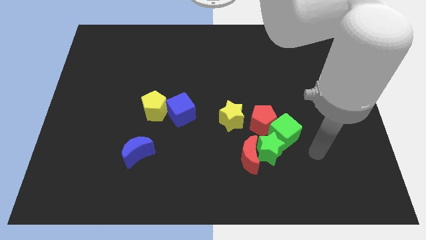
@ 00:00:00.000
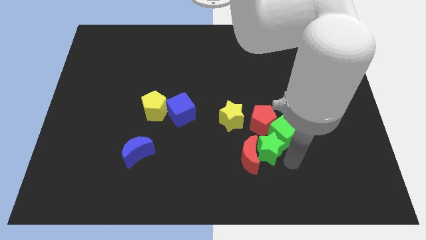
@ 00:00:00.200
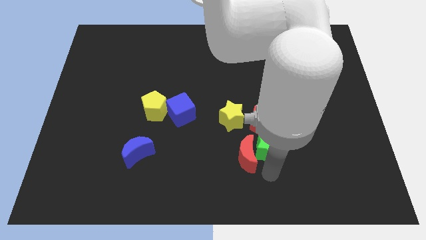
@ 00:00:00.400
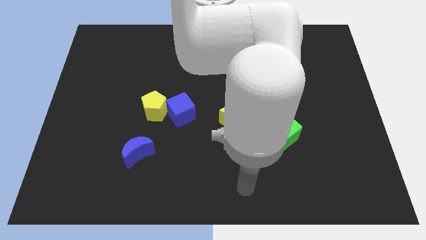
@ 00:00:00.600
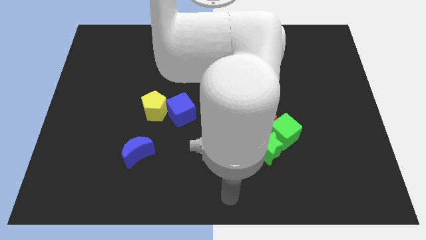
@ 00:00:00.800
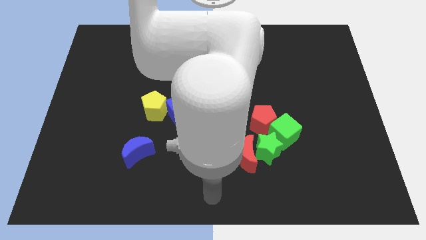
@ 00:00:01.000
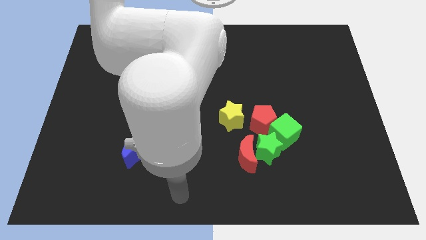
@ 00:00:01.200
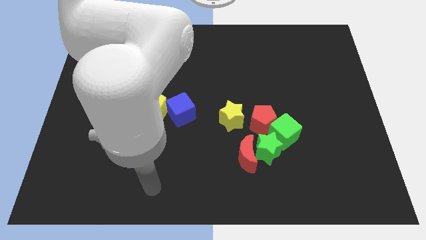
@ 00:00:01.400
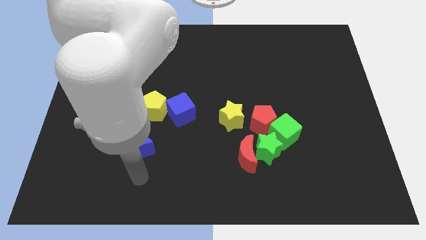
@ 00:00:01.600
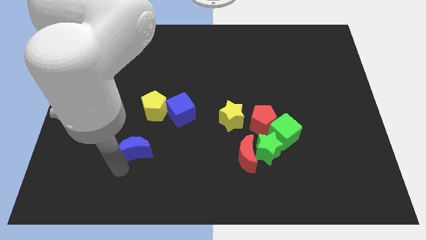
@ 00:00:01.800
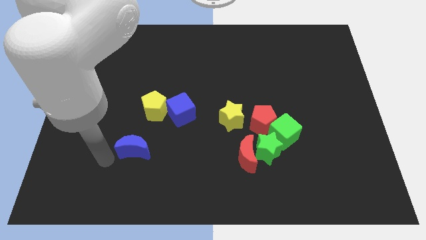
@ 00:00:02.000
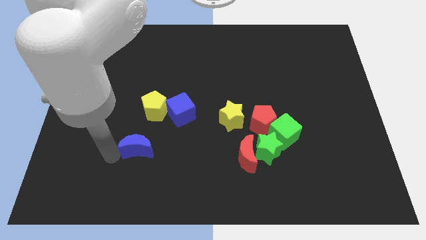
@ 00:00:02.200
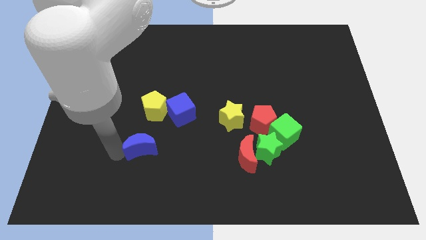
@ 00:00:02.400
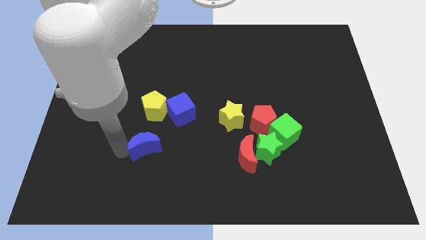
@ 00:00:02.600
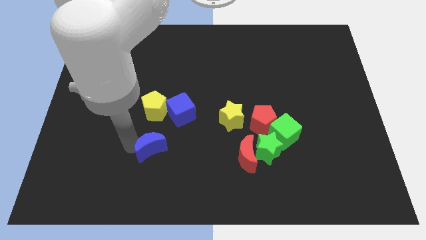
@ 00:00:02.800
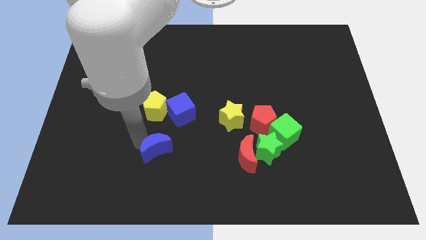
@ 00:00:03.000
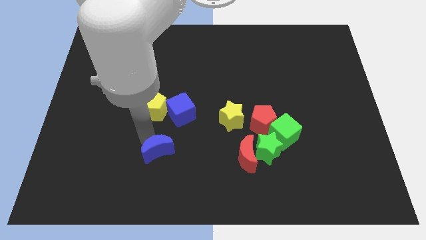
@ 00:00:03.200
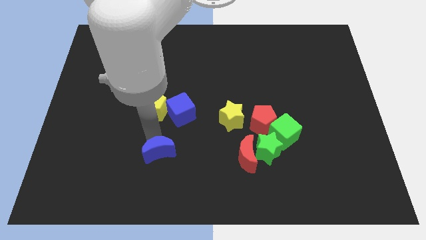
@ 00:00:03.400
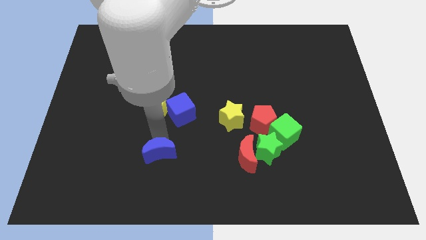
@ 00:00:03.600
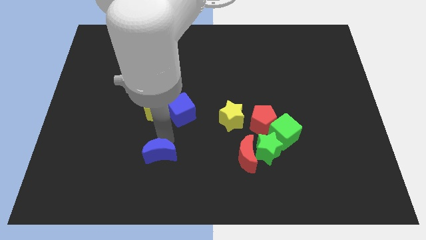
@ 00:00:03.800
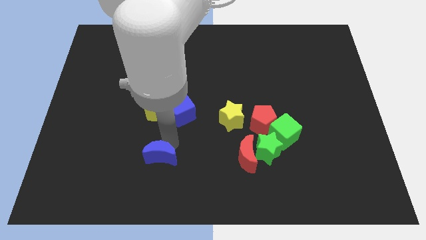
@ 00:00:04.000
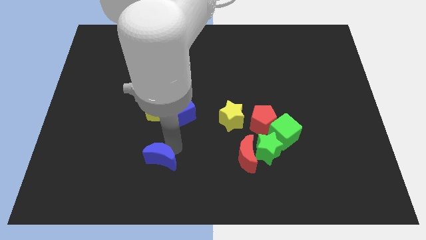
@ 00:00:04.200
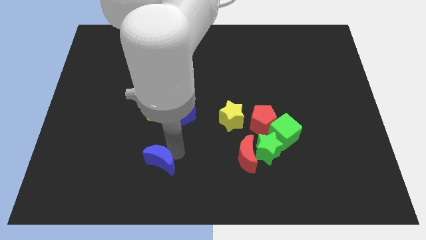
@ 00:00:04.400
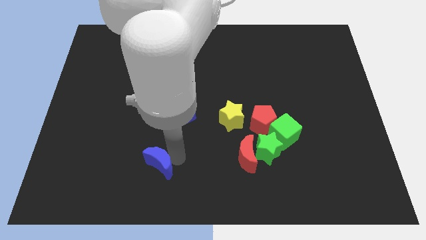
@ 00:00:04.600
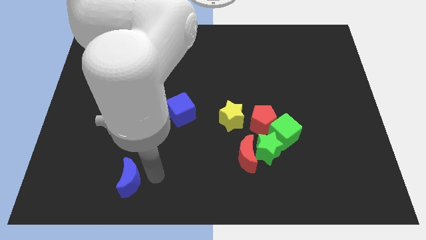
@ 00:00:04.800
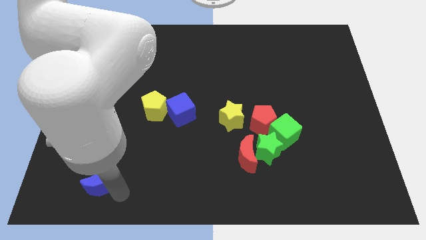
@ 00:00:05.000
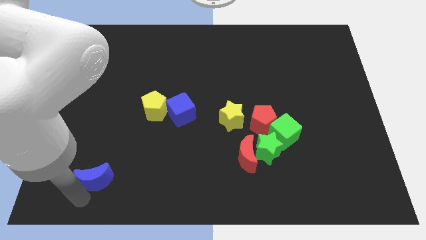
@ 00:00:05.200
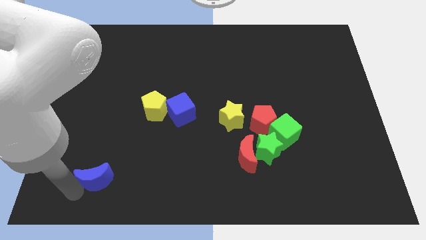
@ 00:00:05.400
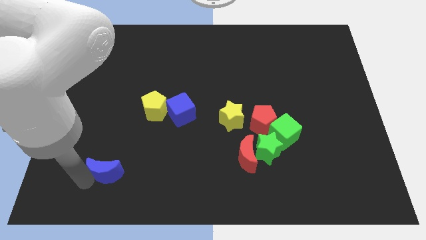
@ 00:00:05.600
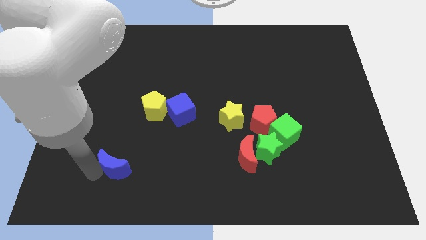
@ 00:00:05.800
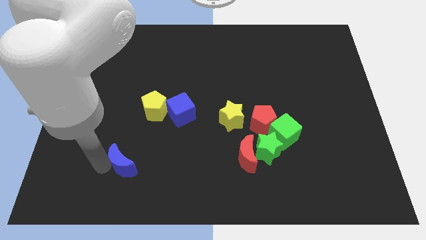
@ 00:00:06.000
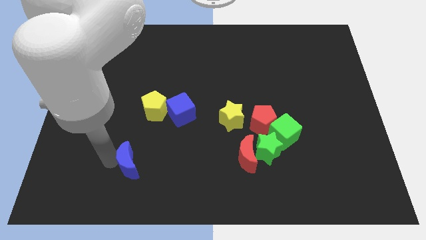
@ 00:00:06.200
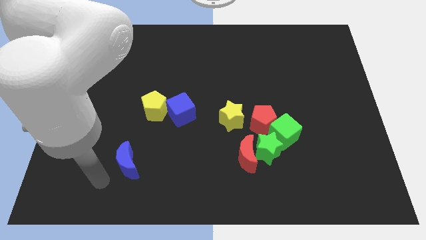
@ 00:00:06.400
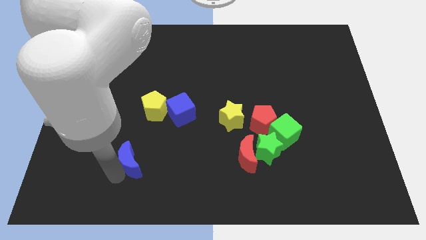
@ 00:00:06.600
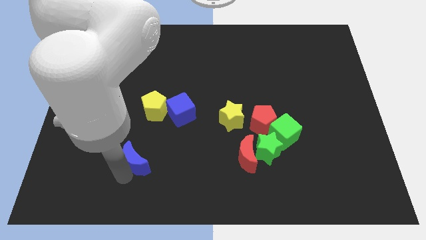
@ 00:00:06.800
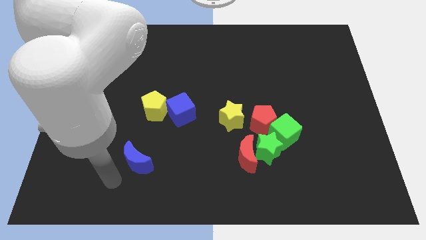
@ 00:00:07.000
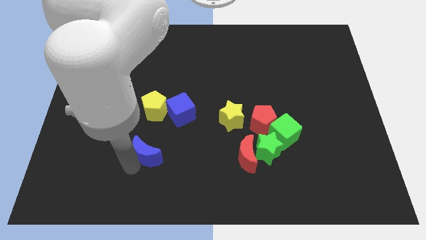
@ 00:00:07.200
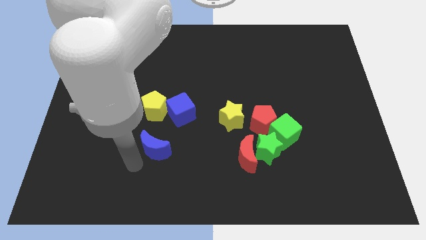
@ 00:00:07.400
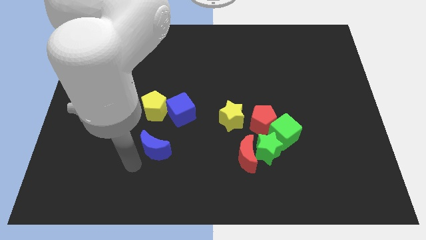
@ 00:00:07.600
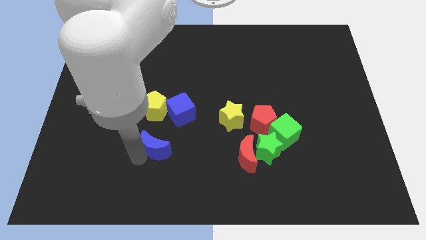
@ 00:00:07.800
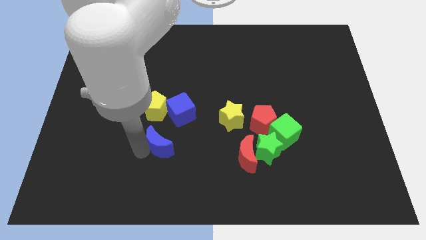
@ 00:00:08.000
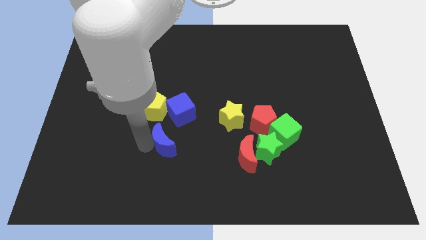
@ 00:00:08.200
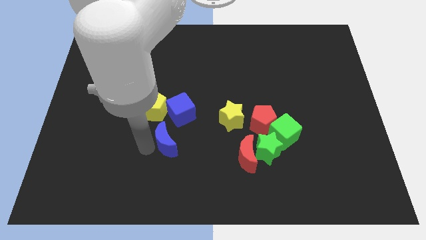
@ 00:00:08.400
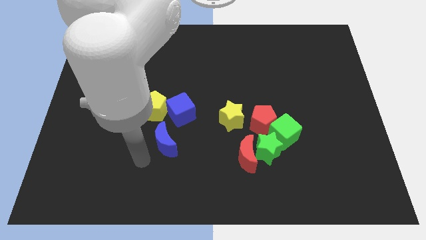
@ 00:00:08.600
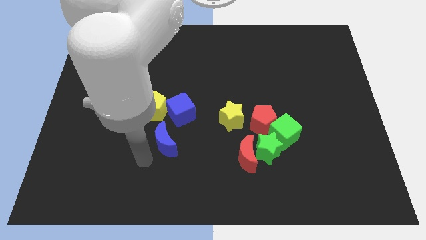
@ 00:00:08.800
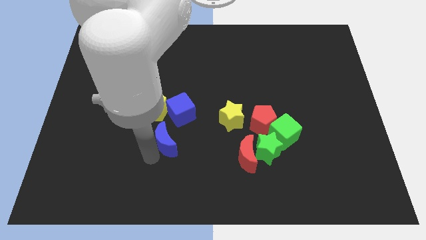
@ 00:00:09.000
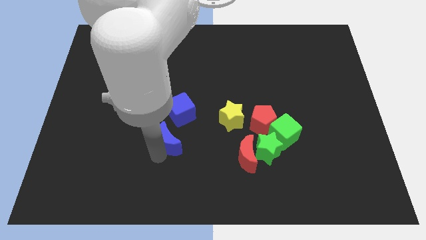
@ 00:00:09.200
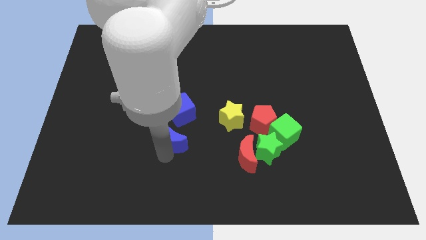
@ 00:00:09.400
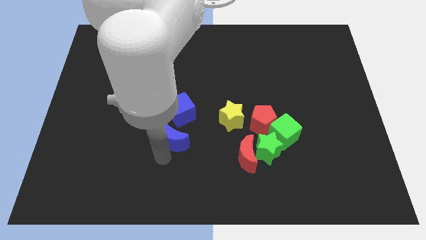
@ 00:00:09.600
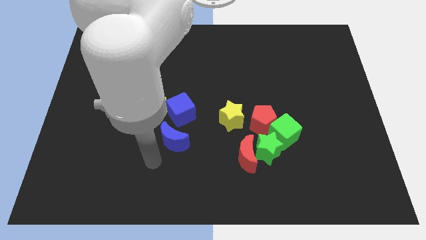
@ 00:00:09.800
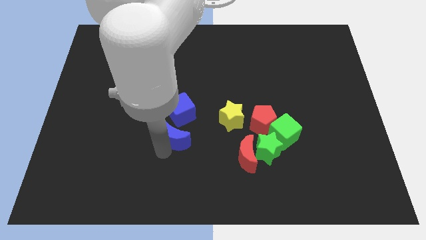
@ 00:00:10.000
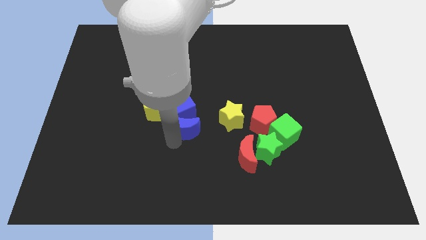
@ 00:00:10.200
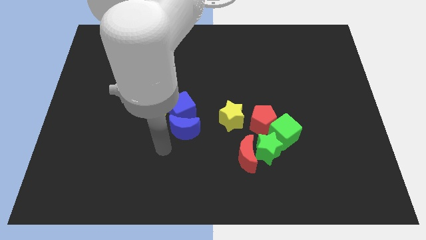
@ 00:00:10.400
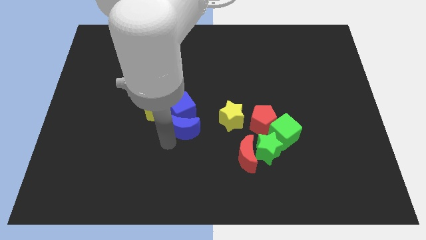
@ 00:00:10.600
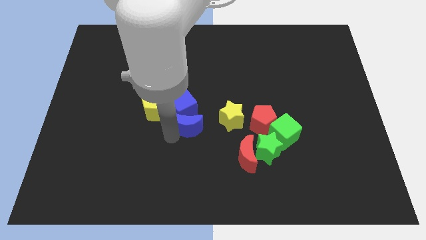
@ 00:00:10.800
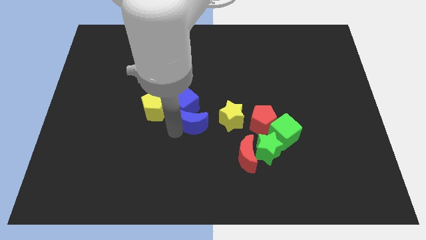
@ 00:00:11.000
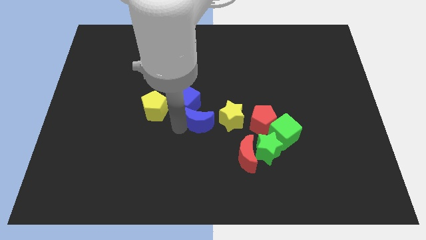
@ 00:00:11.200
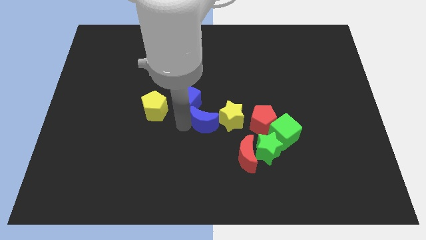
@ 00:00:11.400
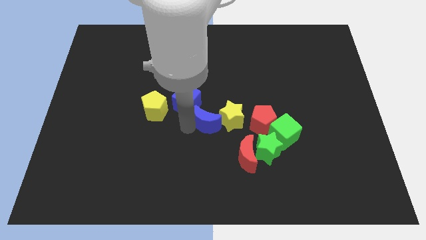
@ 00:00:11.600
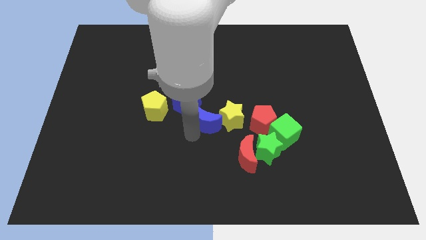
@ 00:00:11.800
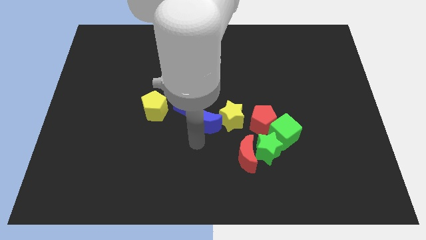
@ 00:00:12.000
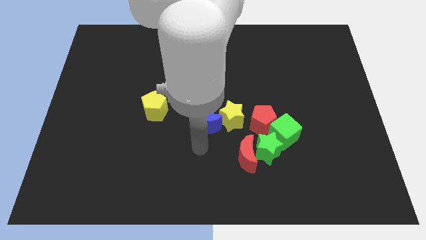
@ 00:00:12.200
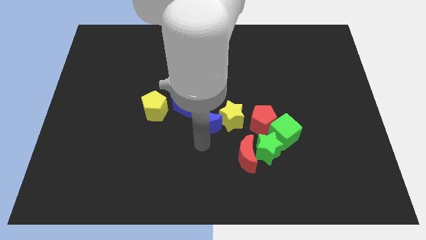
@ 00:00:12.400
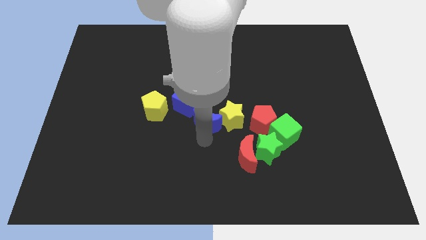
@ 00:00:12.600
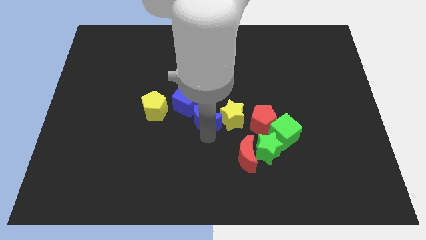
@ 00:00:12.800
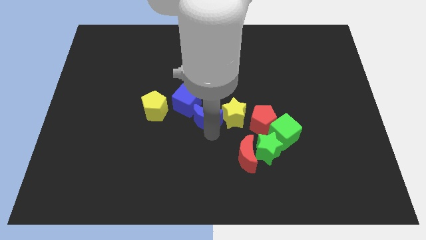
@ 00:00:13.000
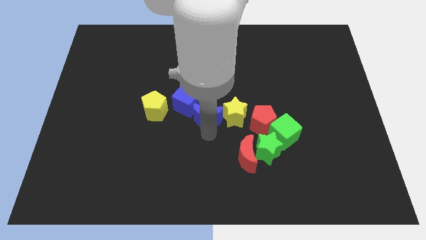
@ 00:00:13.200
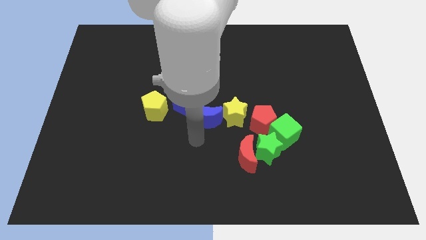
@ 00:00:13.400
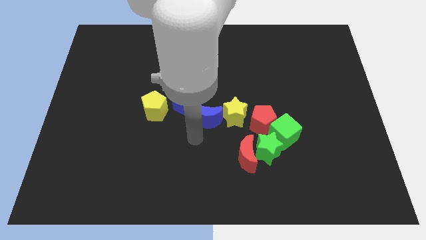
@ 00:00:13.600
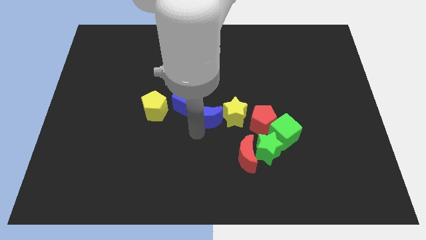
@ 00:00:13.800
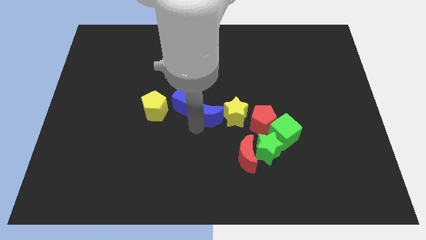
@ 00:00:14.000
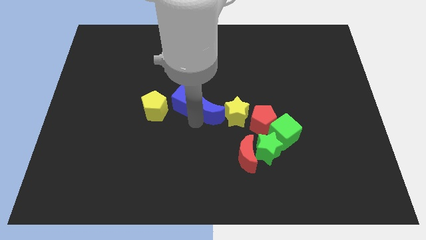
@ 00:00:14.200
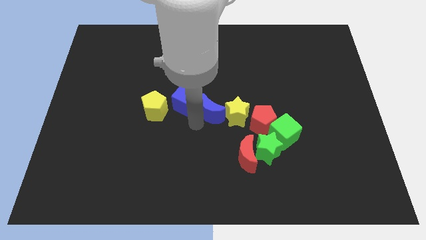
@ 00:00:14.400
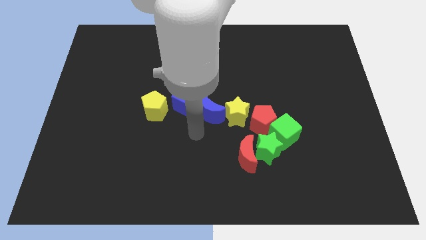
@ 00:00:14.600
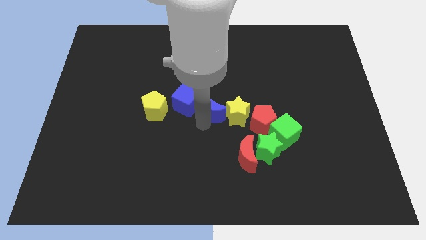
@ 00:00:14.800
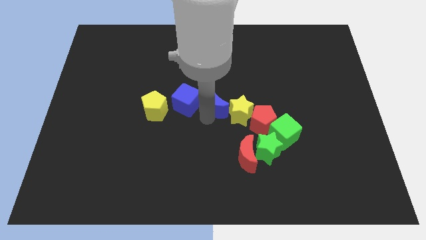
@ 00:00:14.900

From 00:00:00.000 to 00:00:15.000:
slide the blue moon up and right

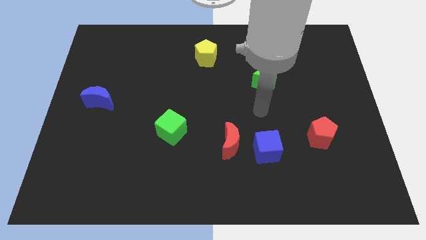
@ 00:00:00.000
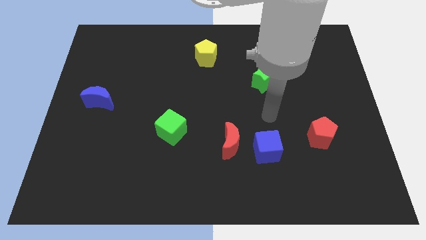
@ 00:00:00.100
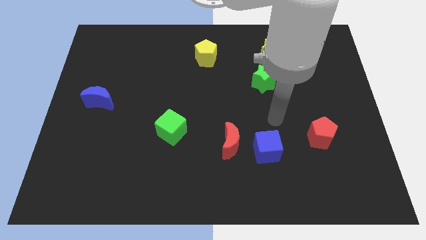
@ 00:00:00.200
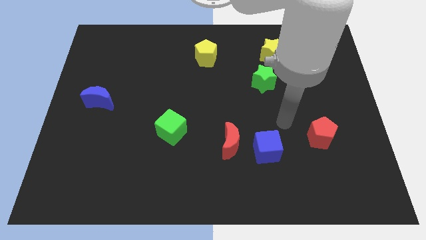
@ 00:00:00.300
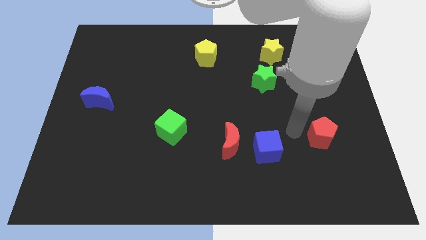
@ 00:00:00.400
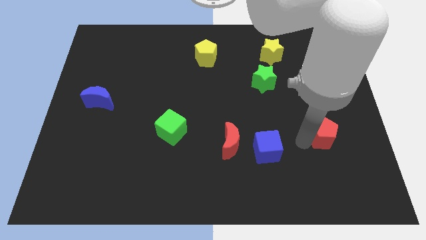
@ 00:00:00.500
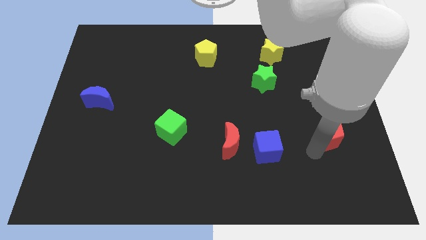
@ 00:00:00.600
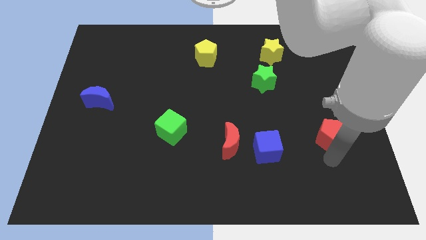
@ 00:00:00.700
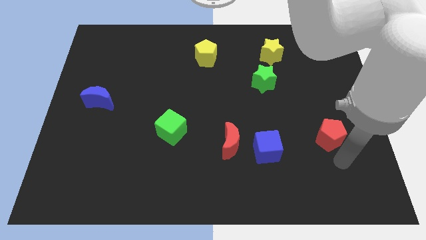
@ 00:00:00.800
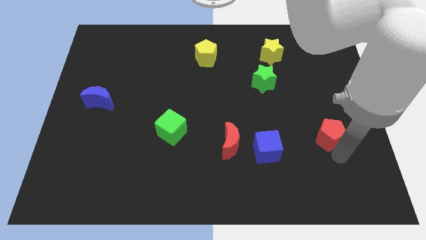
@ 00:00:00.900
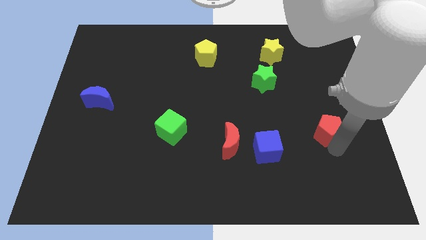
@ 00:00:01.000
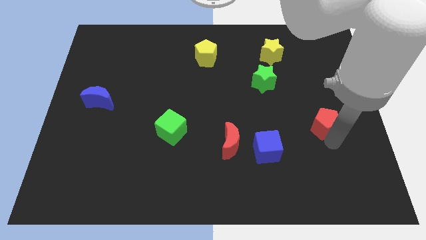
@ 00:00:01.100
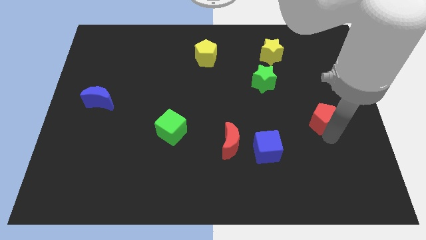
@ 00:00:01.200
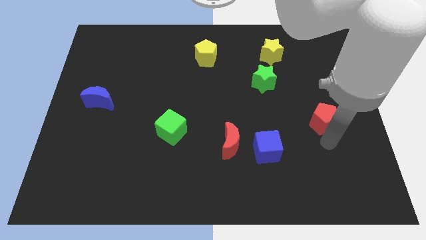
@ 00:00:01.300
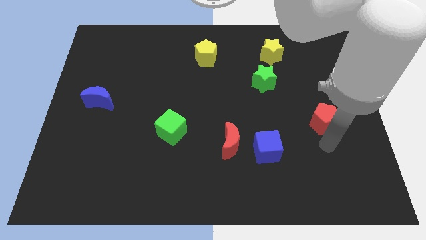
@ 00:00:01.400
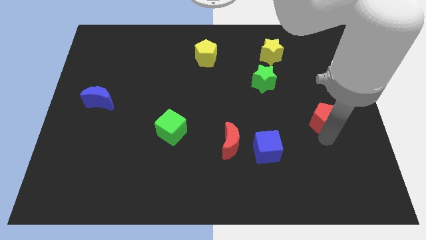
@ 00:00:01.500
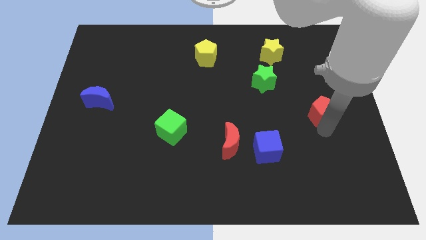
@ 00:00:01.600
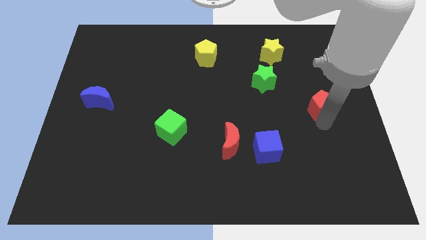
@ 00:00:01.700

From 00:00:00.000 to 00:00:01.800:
push the red pentagon a little bit up
